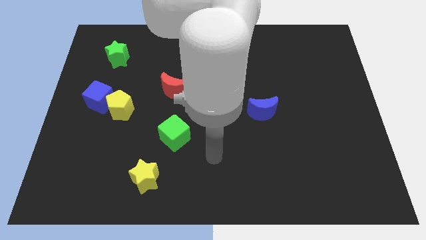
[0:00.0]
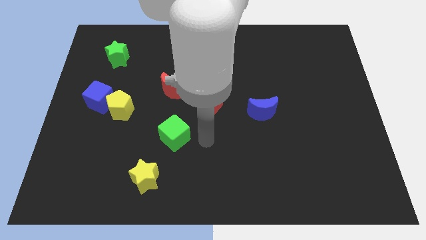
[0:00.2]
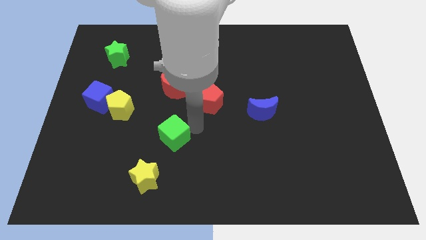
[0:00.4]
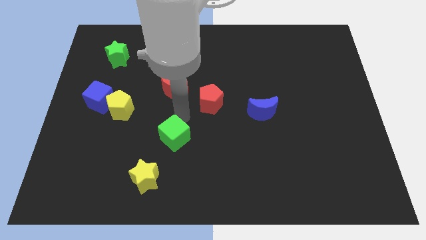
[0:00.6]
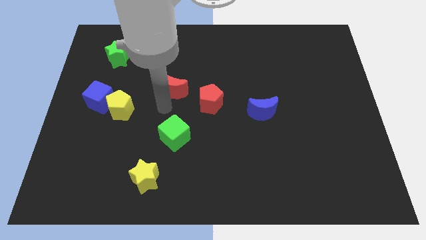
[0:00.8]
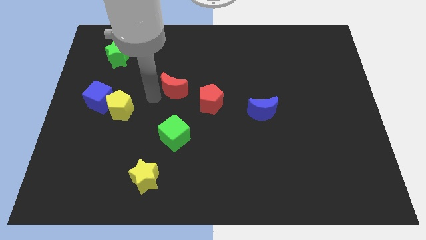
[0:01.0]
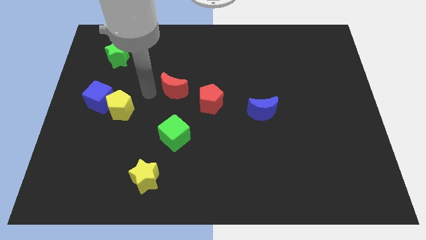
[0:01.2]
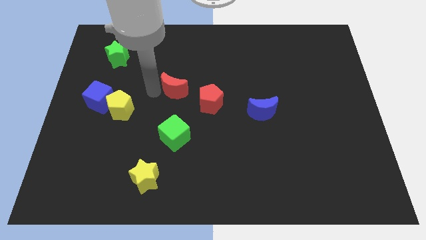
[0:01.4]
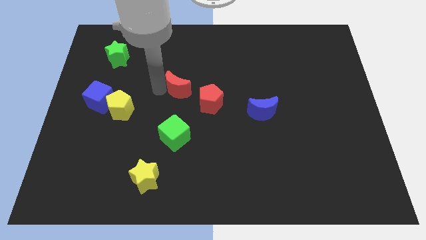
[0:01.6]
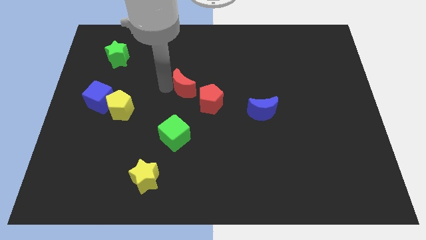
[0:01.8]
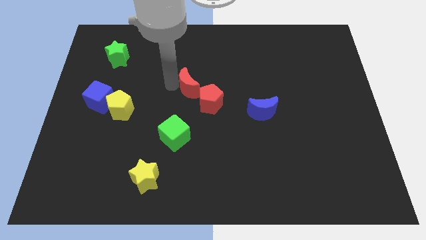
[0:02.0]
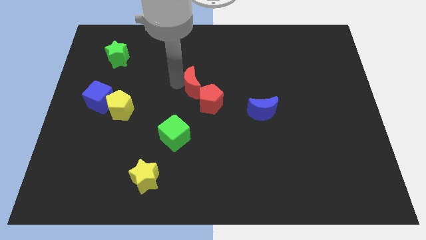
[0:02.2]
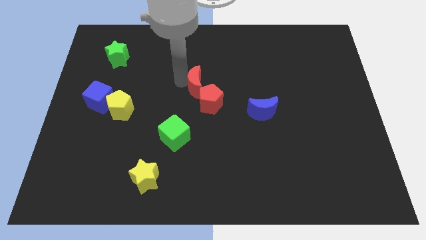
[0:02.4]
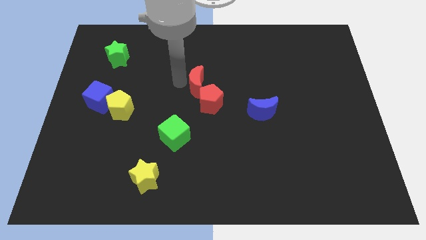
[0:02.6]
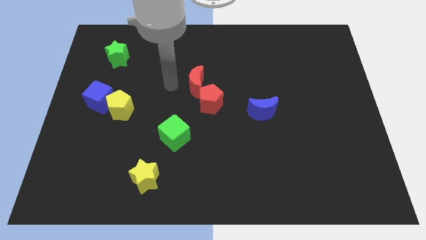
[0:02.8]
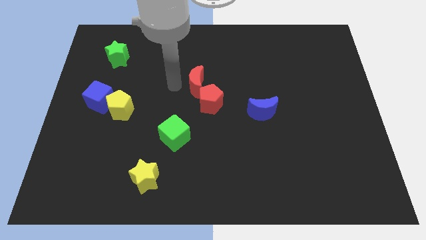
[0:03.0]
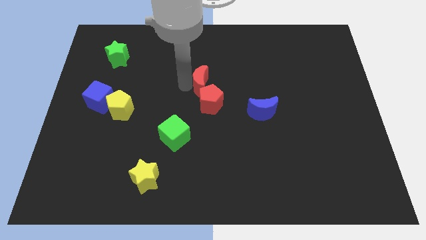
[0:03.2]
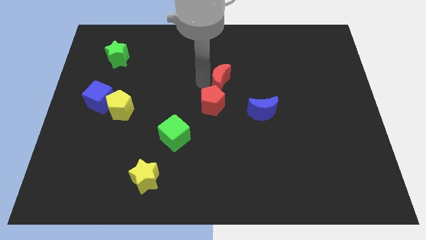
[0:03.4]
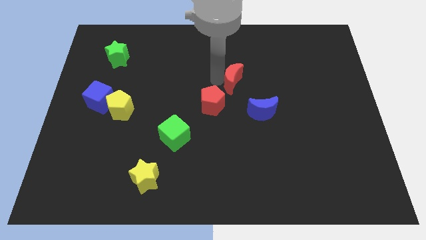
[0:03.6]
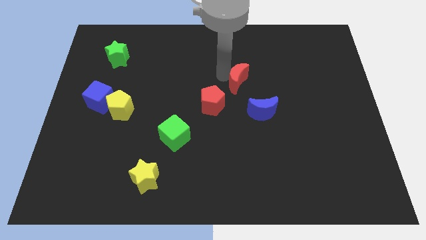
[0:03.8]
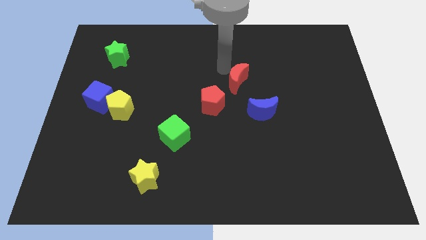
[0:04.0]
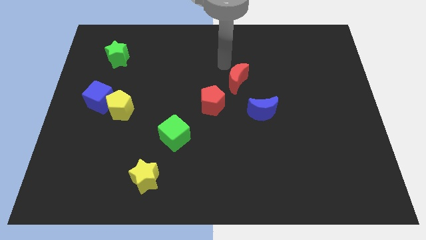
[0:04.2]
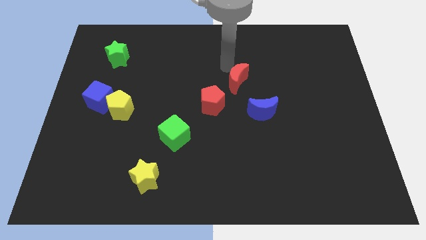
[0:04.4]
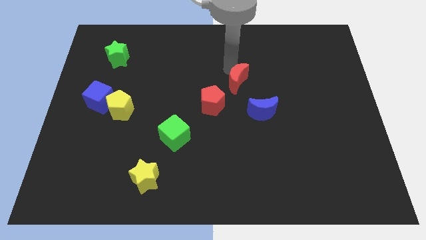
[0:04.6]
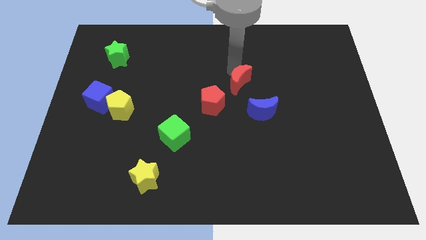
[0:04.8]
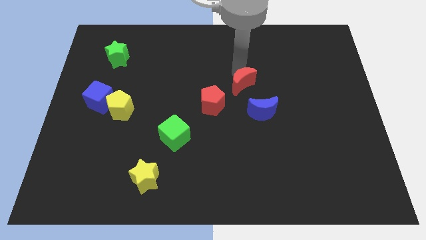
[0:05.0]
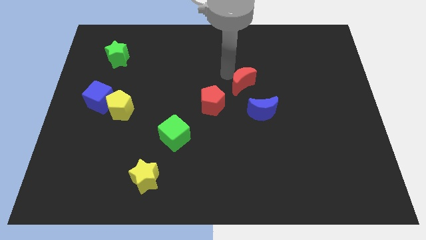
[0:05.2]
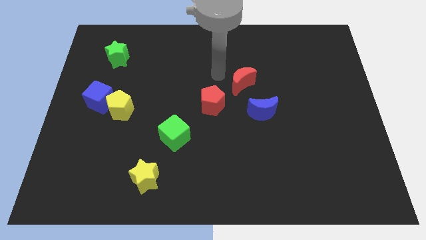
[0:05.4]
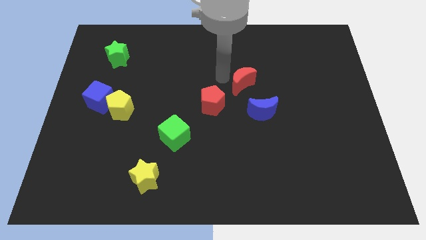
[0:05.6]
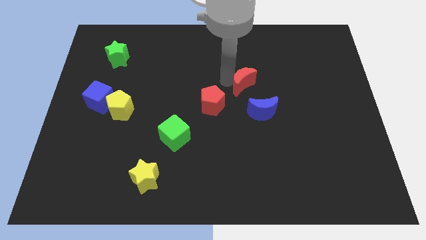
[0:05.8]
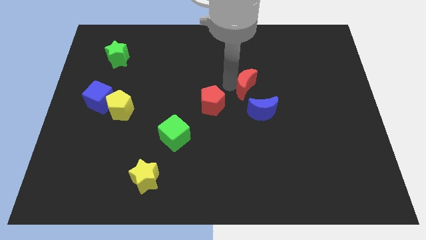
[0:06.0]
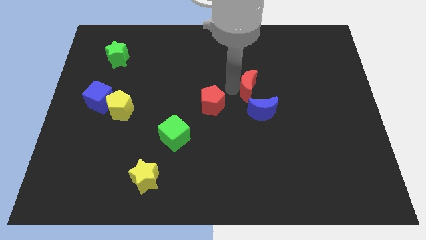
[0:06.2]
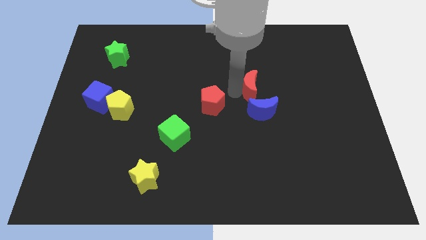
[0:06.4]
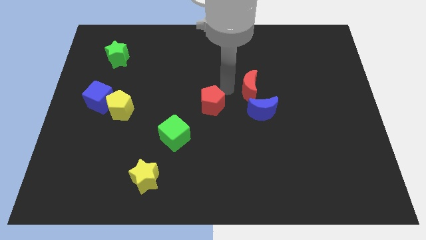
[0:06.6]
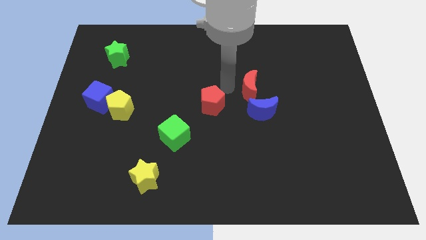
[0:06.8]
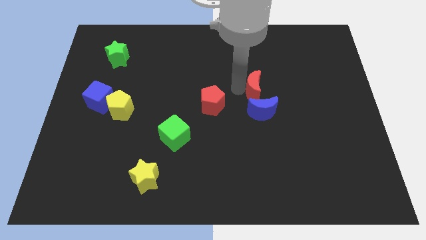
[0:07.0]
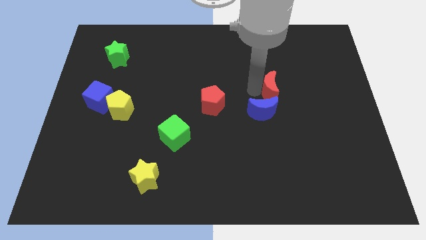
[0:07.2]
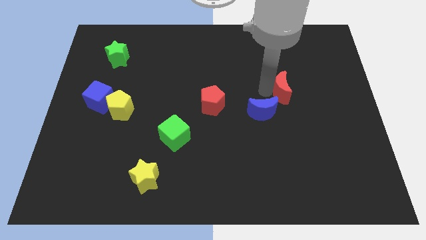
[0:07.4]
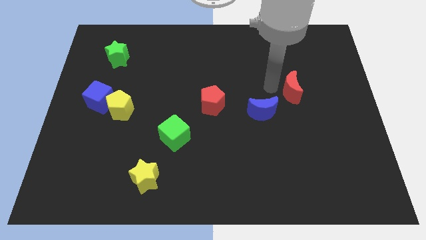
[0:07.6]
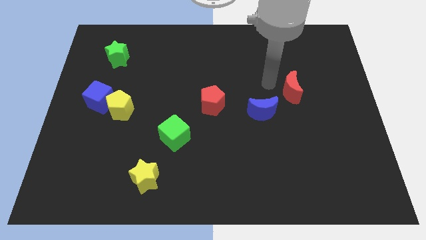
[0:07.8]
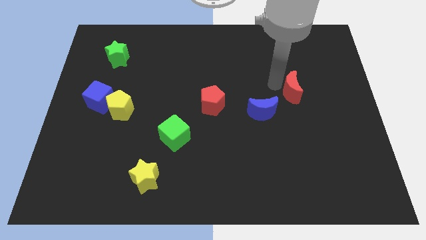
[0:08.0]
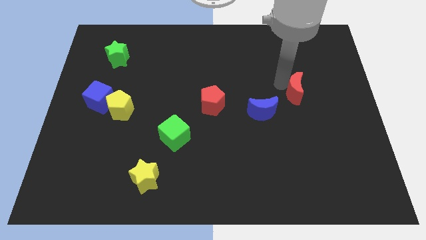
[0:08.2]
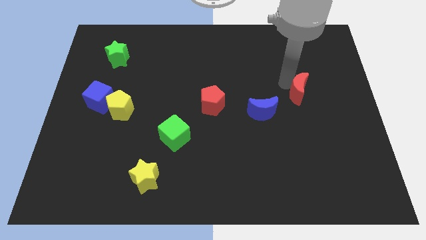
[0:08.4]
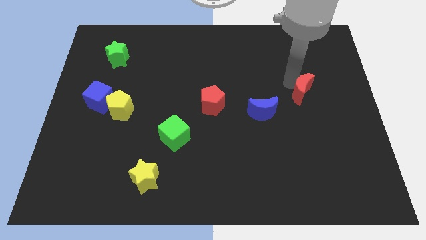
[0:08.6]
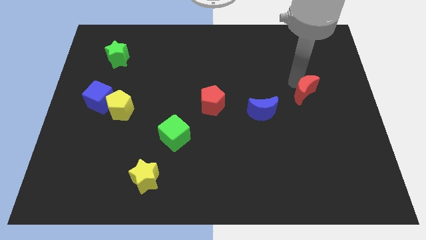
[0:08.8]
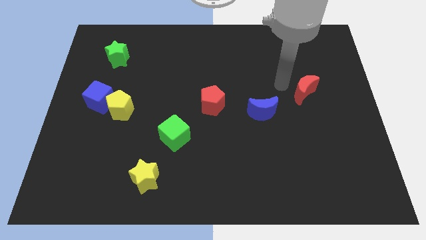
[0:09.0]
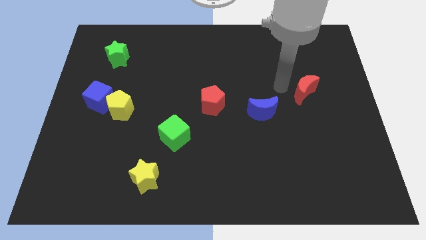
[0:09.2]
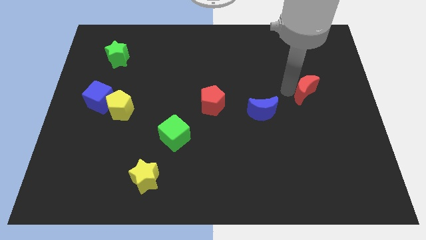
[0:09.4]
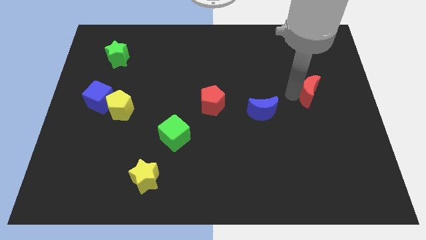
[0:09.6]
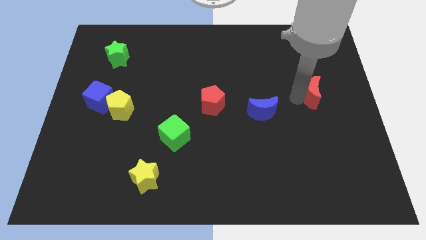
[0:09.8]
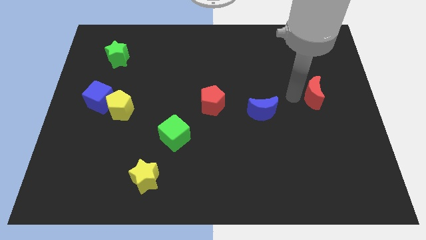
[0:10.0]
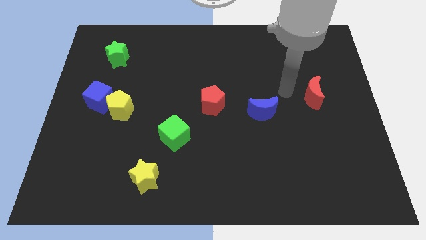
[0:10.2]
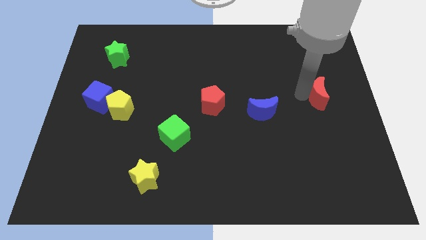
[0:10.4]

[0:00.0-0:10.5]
move the red moon to the right side
